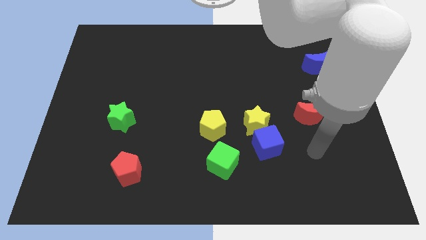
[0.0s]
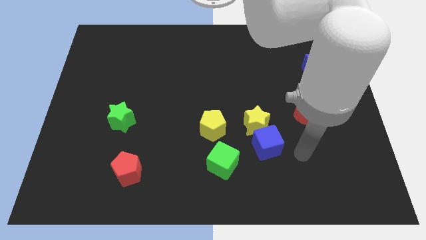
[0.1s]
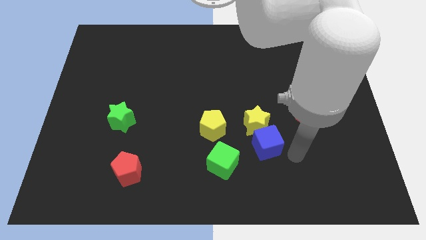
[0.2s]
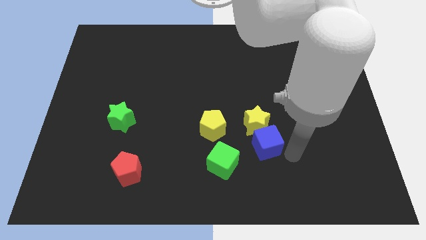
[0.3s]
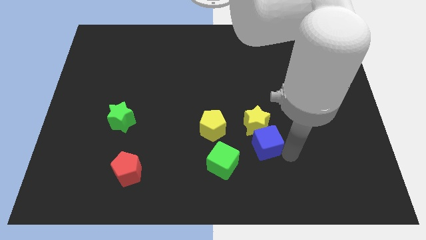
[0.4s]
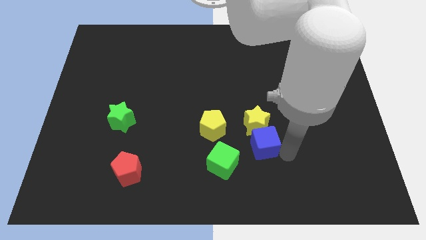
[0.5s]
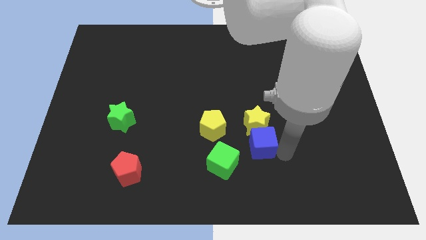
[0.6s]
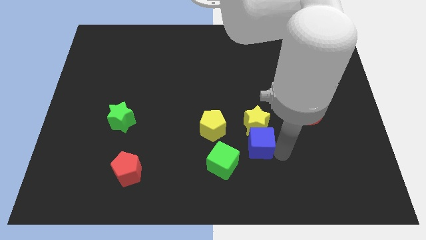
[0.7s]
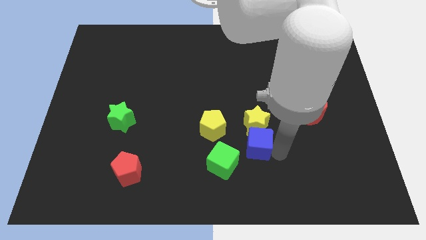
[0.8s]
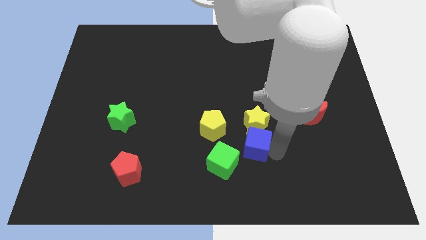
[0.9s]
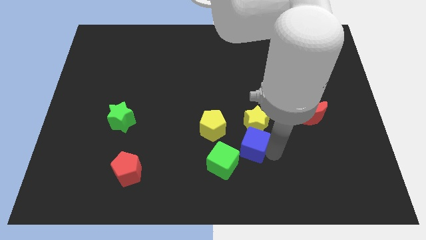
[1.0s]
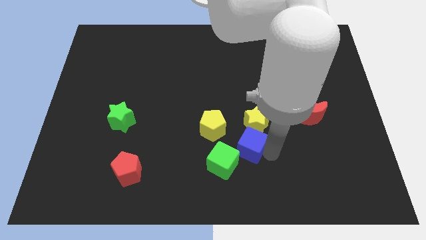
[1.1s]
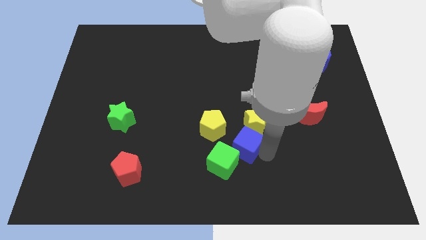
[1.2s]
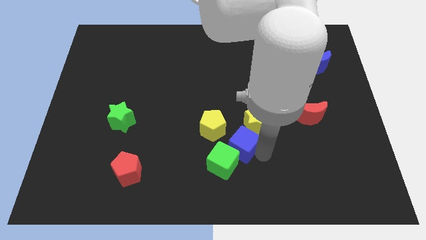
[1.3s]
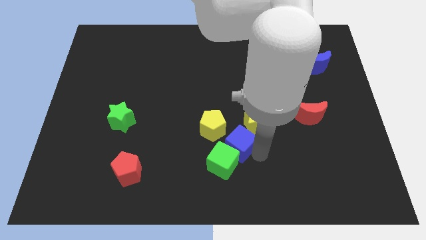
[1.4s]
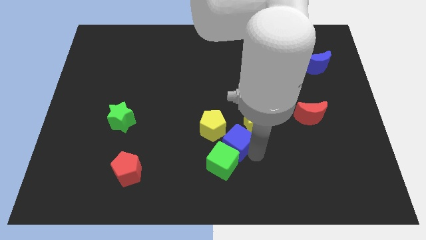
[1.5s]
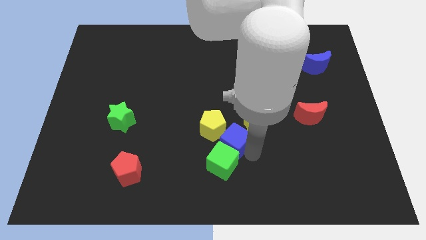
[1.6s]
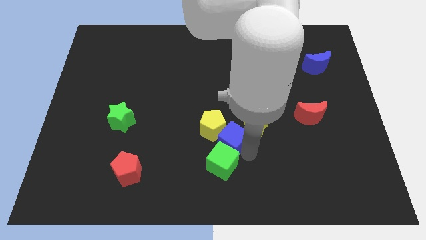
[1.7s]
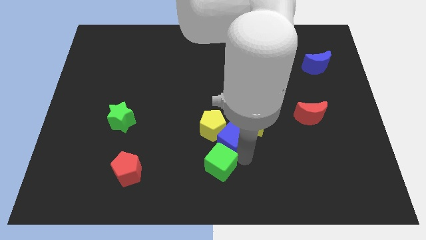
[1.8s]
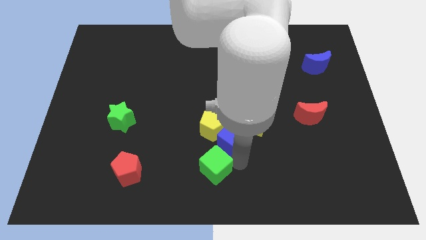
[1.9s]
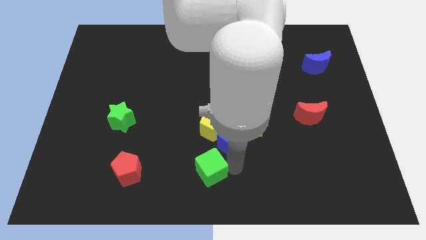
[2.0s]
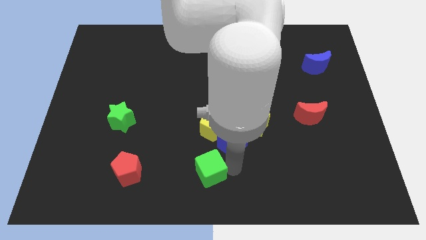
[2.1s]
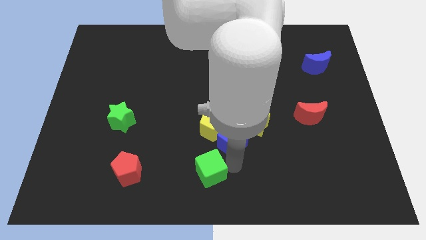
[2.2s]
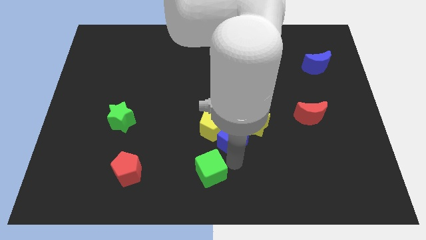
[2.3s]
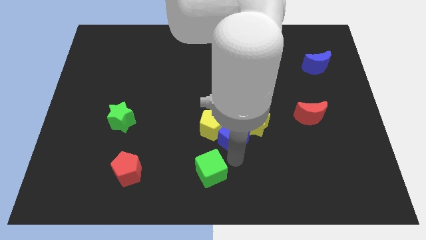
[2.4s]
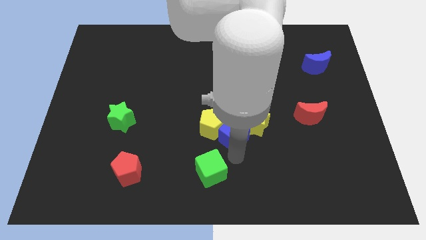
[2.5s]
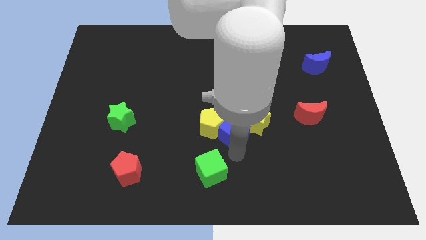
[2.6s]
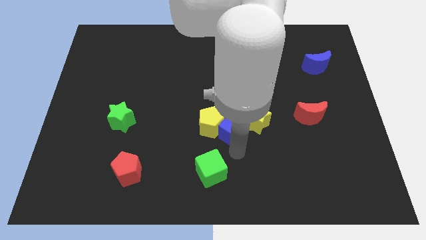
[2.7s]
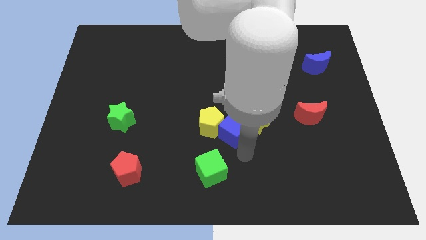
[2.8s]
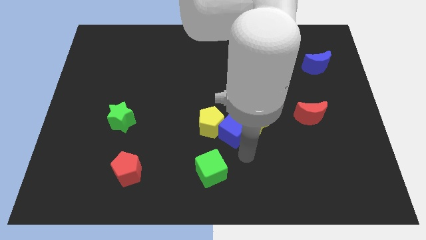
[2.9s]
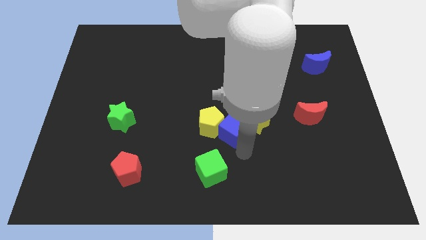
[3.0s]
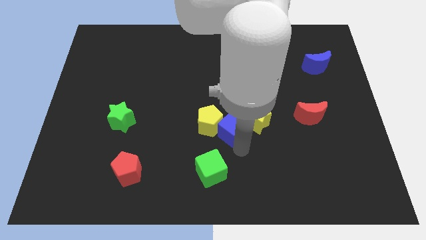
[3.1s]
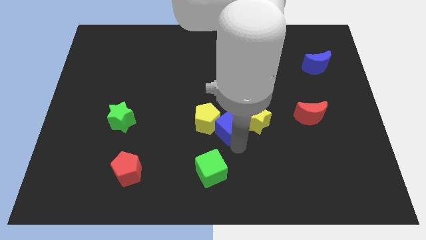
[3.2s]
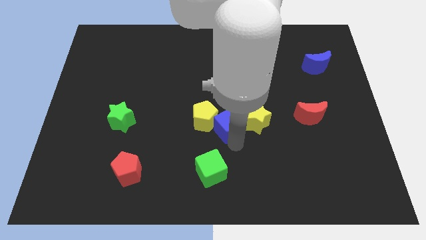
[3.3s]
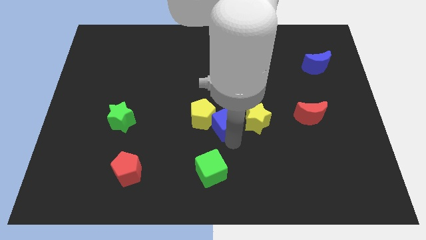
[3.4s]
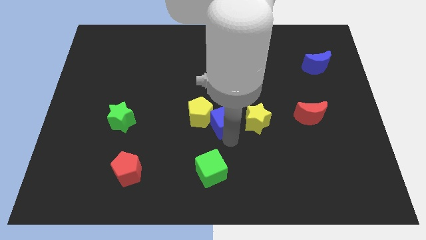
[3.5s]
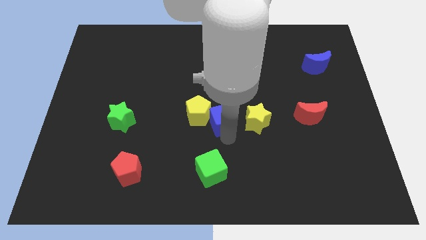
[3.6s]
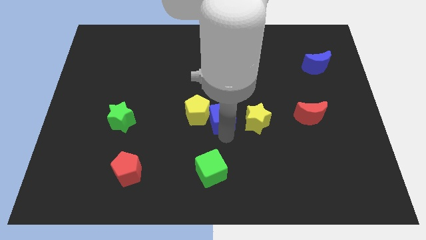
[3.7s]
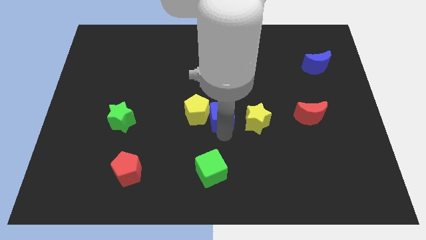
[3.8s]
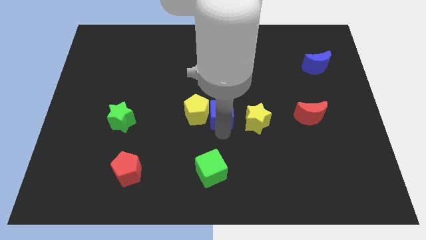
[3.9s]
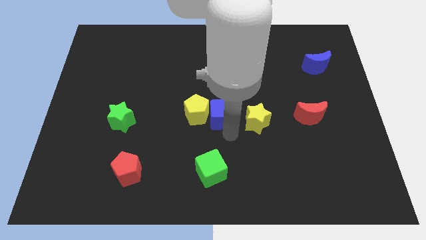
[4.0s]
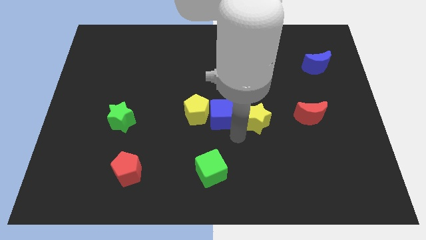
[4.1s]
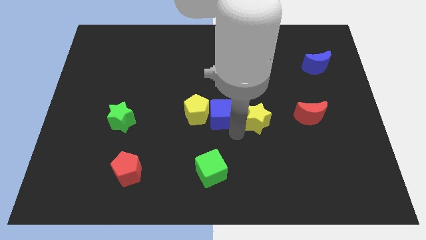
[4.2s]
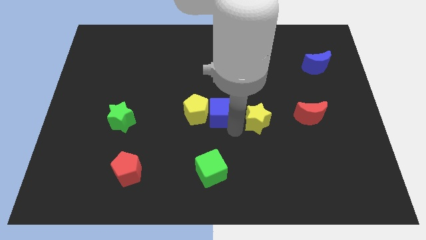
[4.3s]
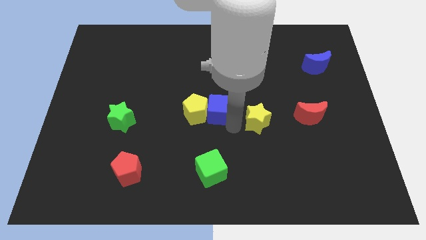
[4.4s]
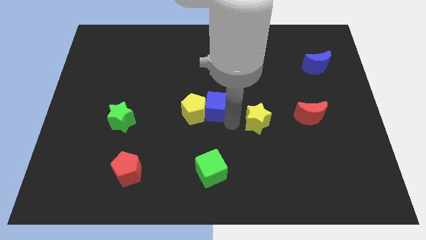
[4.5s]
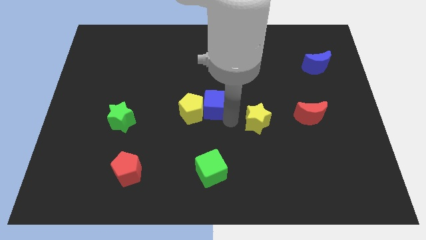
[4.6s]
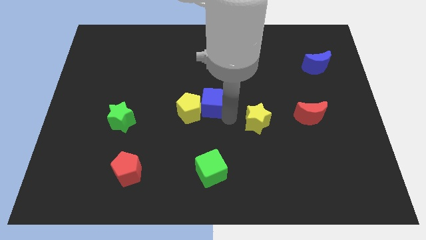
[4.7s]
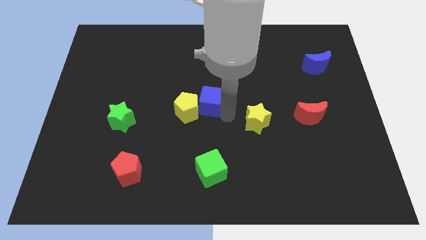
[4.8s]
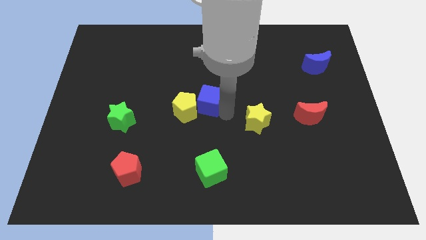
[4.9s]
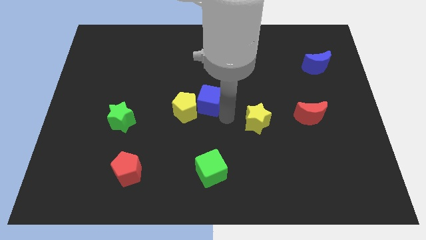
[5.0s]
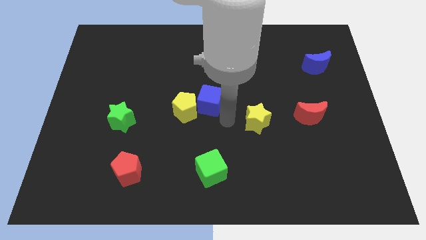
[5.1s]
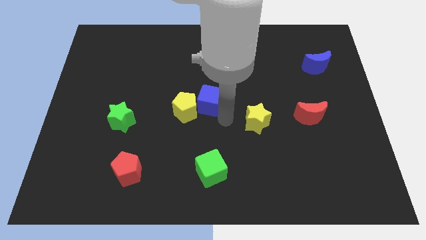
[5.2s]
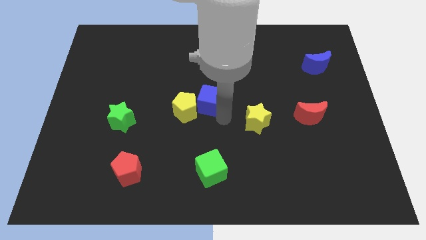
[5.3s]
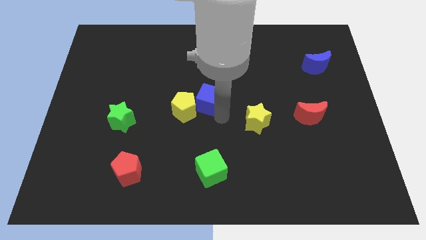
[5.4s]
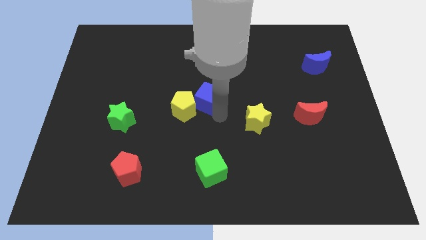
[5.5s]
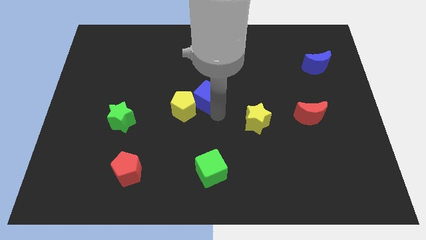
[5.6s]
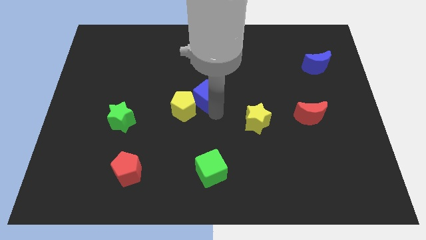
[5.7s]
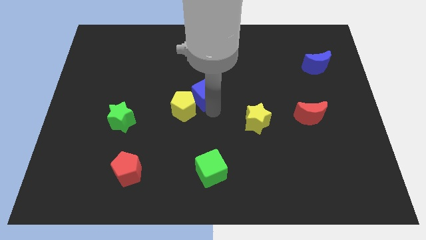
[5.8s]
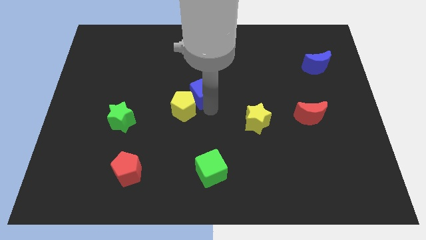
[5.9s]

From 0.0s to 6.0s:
slide the blue cube up and left

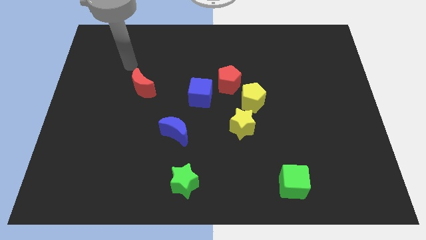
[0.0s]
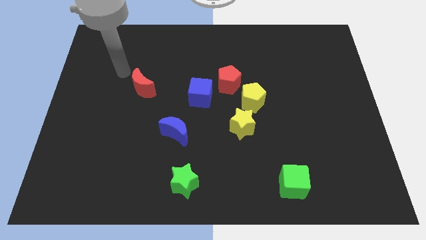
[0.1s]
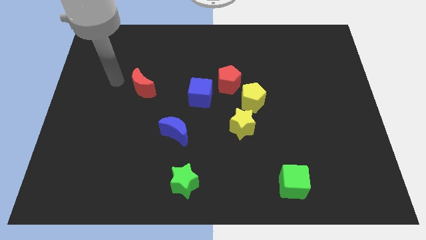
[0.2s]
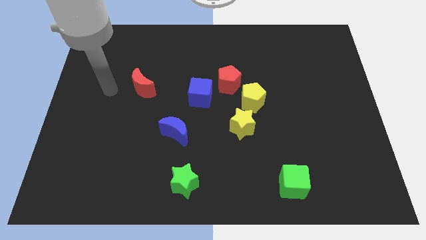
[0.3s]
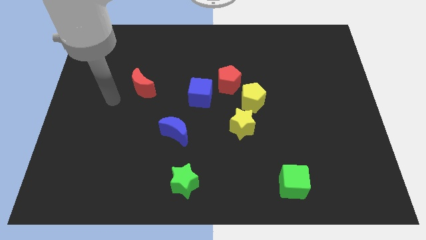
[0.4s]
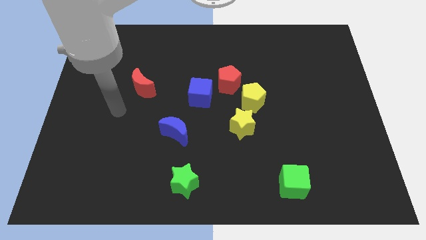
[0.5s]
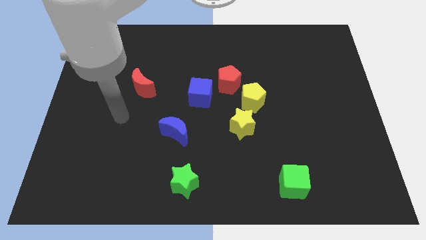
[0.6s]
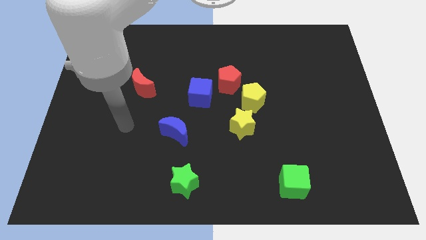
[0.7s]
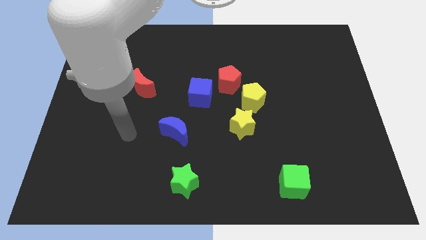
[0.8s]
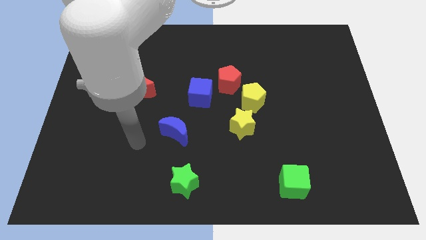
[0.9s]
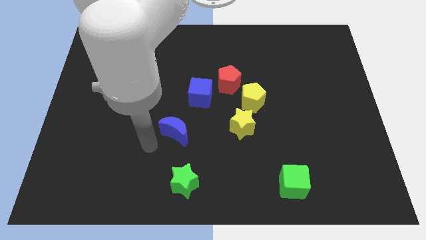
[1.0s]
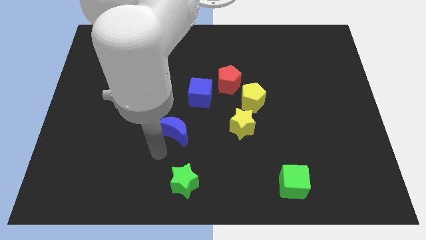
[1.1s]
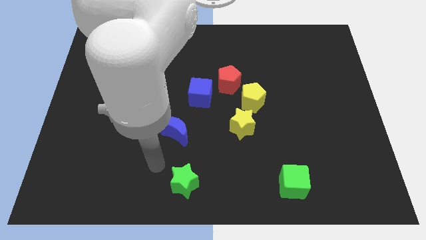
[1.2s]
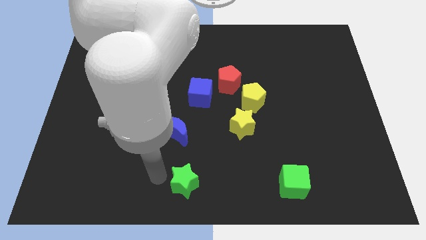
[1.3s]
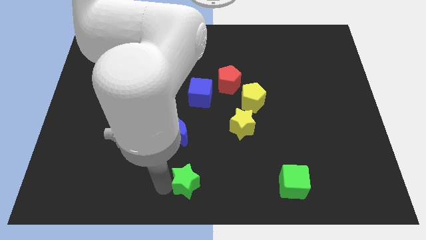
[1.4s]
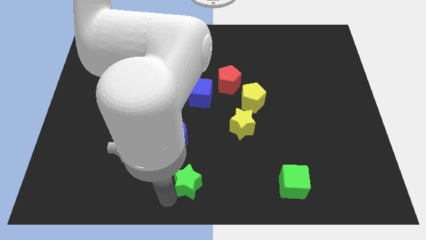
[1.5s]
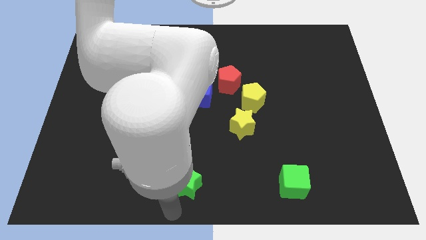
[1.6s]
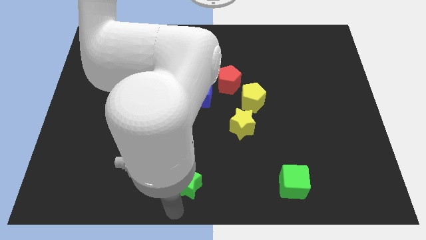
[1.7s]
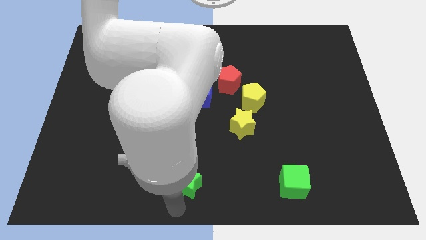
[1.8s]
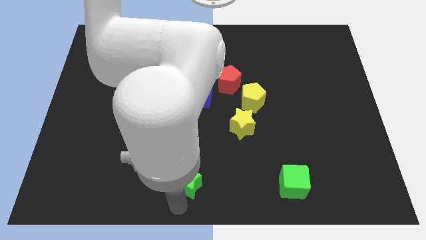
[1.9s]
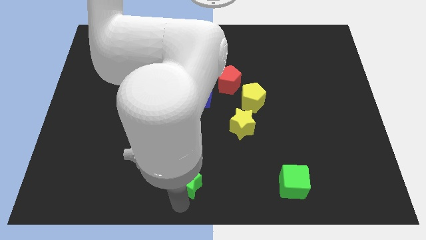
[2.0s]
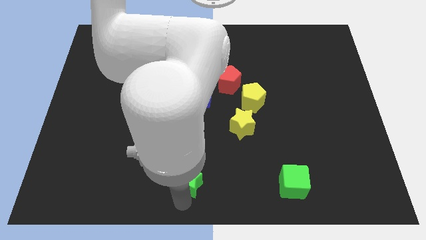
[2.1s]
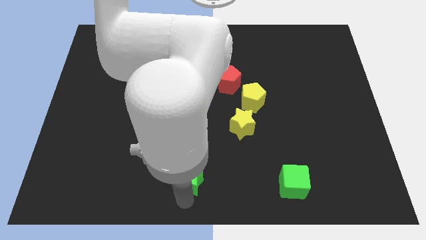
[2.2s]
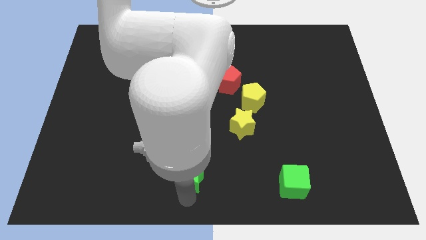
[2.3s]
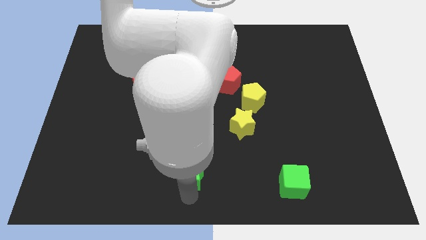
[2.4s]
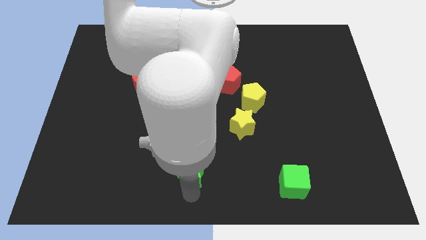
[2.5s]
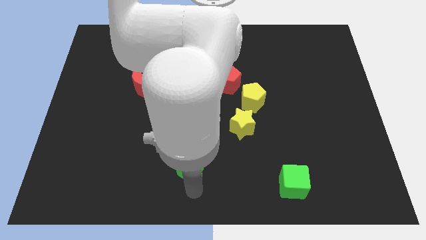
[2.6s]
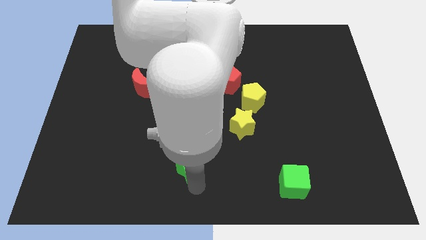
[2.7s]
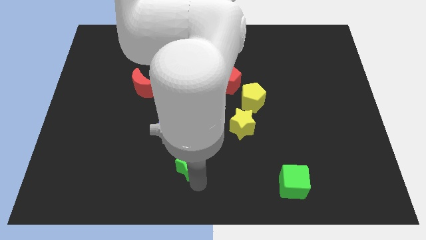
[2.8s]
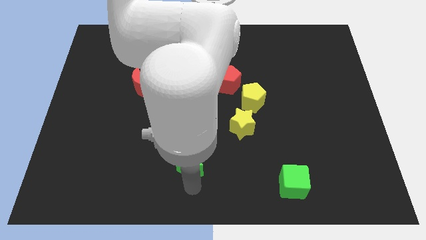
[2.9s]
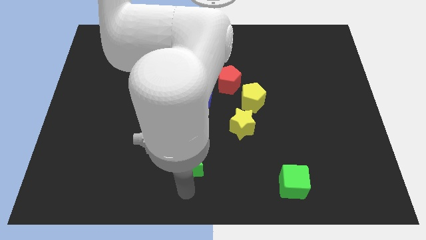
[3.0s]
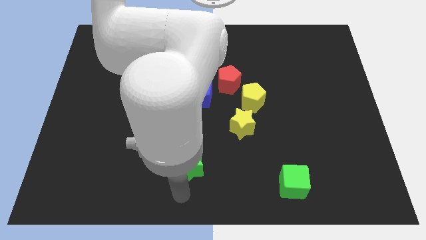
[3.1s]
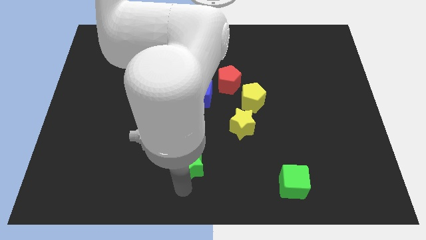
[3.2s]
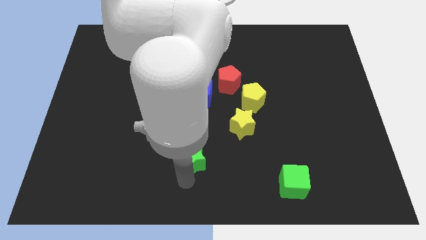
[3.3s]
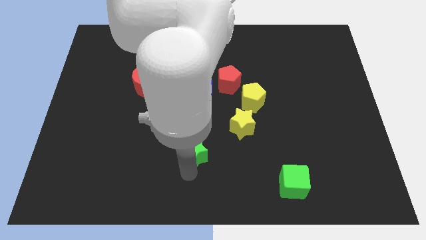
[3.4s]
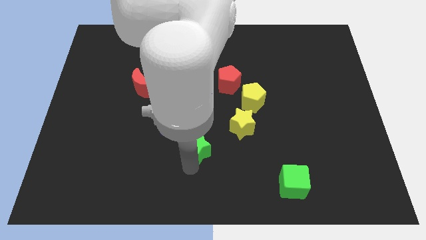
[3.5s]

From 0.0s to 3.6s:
slightly push the green star up
